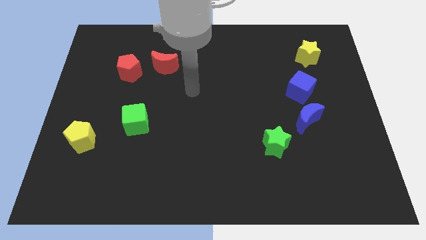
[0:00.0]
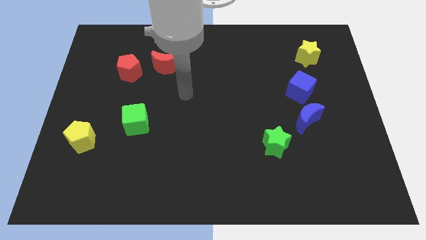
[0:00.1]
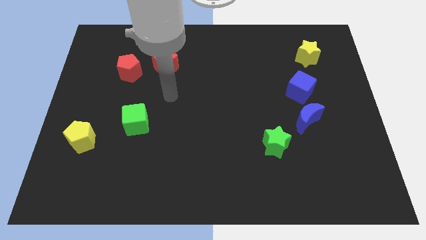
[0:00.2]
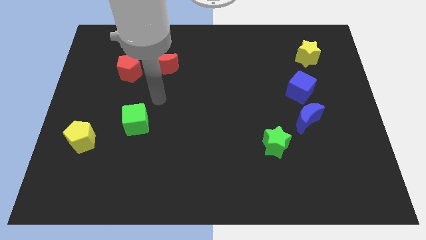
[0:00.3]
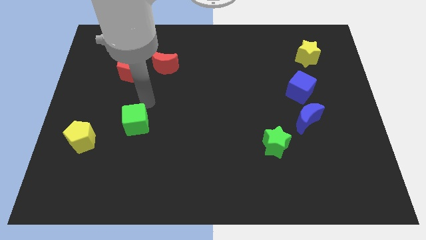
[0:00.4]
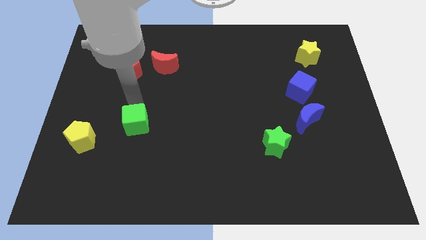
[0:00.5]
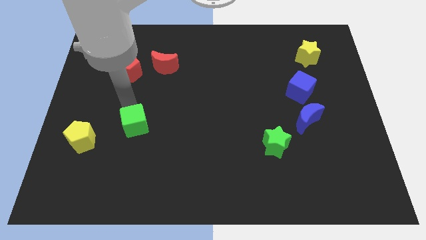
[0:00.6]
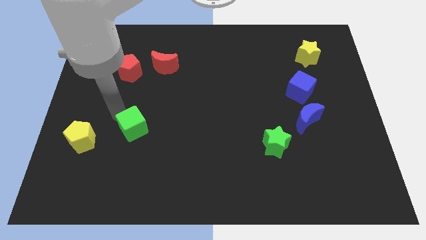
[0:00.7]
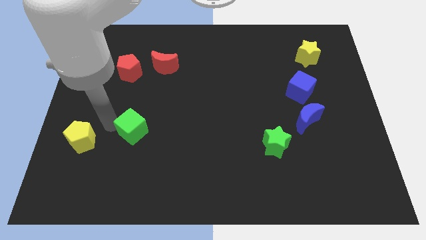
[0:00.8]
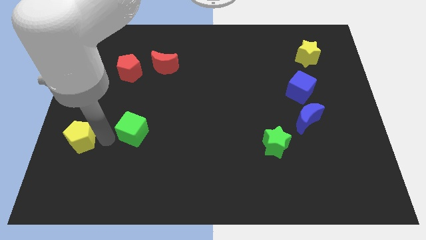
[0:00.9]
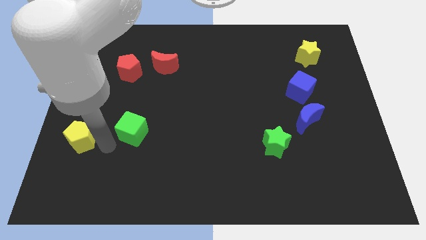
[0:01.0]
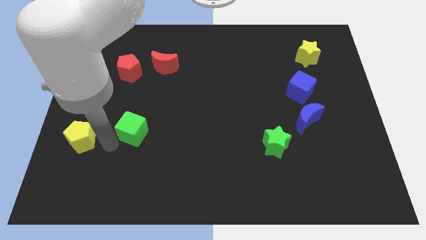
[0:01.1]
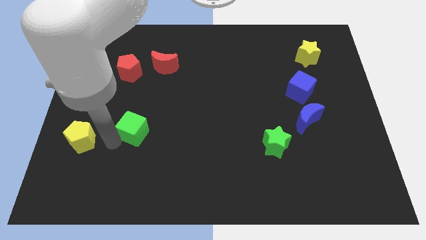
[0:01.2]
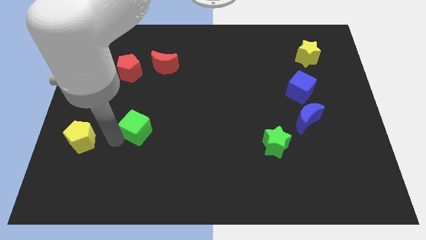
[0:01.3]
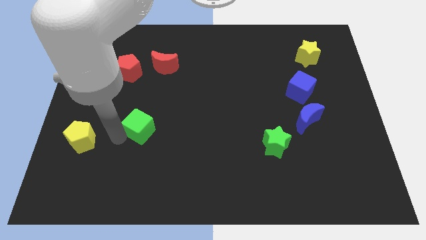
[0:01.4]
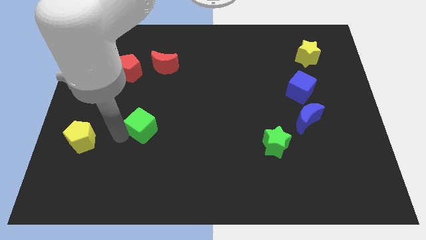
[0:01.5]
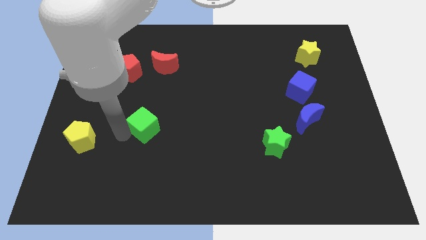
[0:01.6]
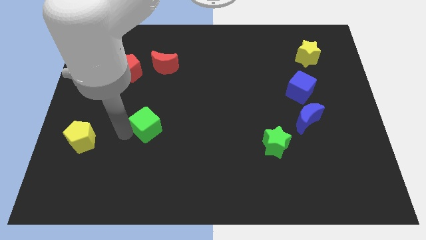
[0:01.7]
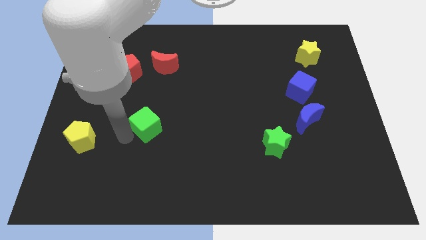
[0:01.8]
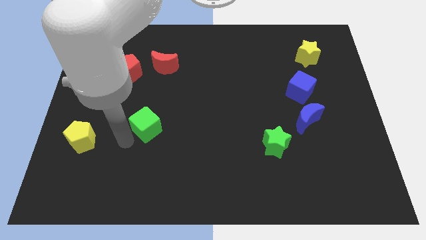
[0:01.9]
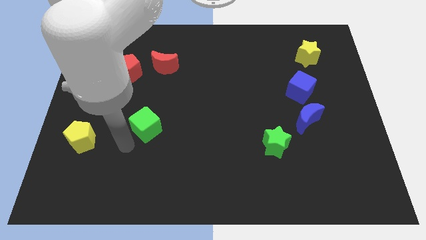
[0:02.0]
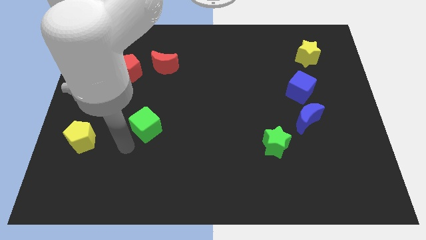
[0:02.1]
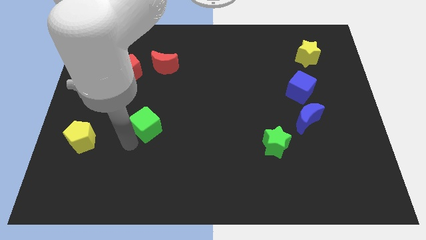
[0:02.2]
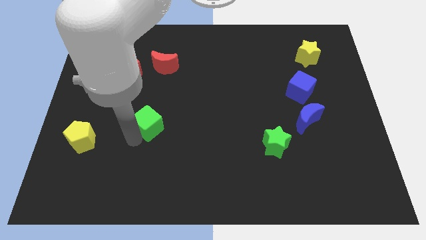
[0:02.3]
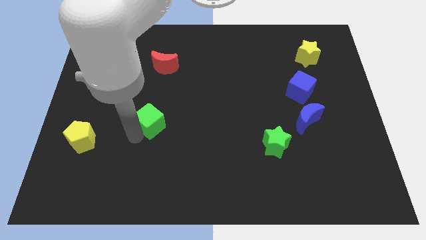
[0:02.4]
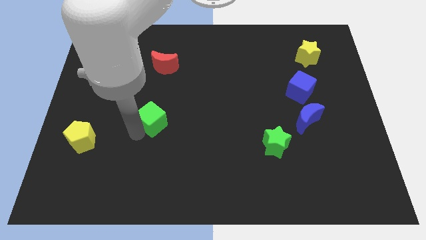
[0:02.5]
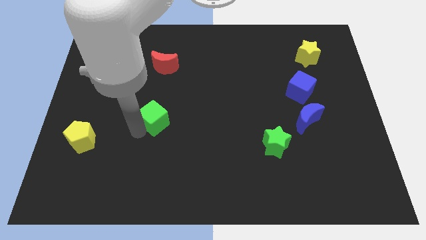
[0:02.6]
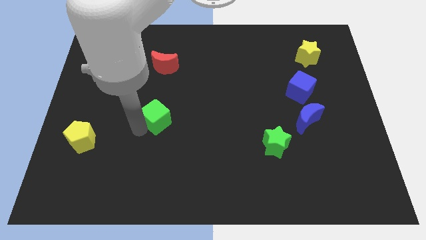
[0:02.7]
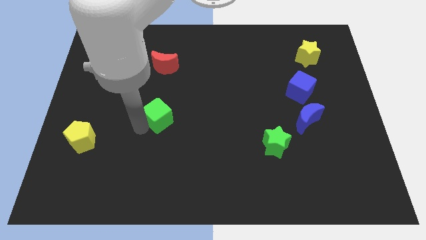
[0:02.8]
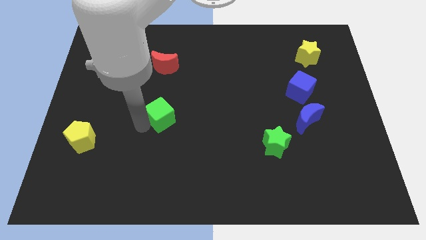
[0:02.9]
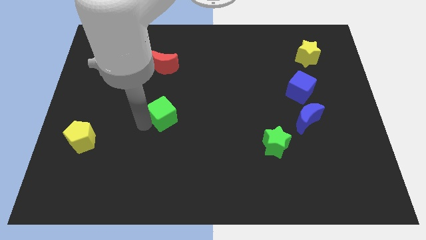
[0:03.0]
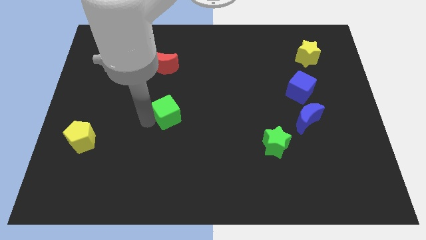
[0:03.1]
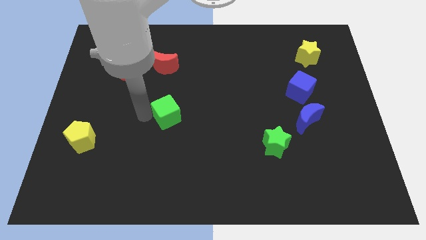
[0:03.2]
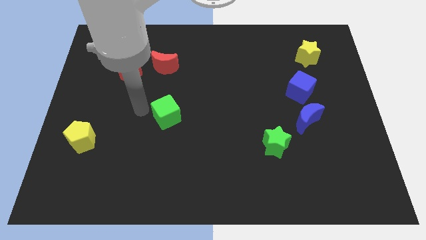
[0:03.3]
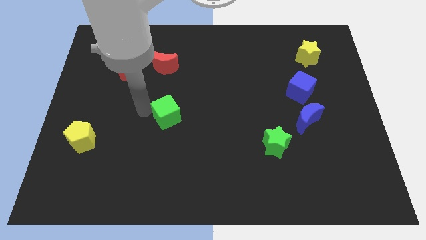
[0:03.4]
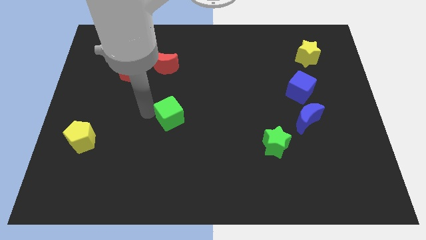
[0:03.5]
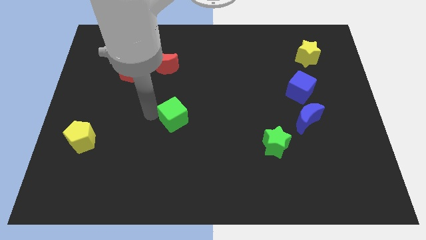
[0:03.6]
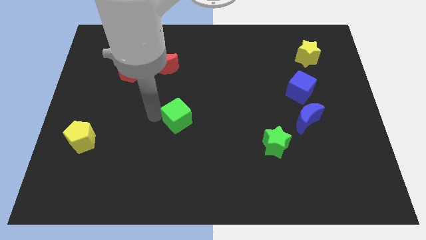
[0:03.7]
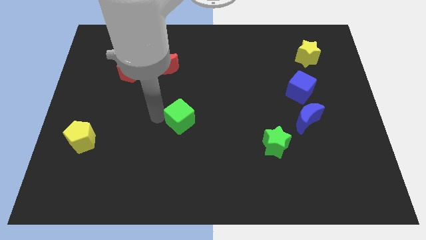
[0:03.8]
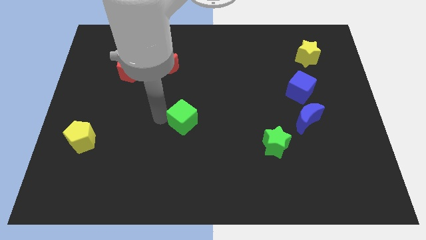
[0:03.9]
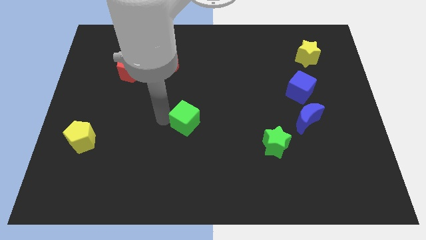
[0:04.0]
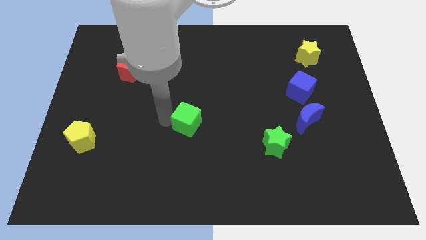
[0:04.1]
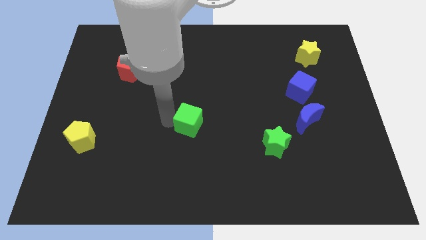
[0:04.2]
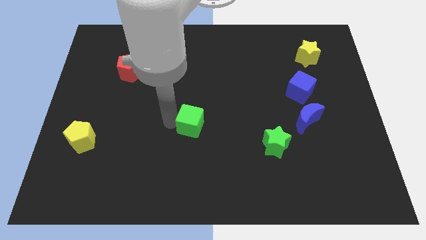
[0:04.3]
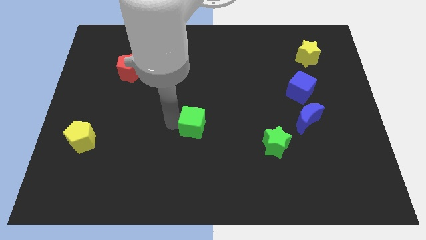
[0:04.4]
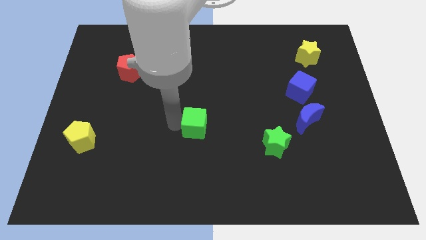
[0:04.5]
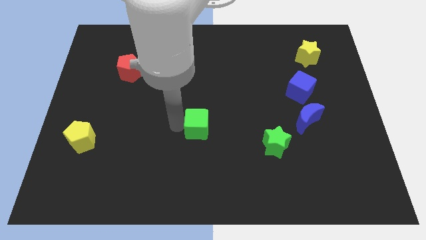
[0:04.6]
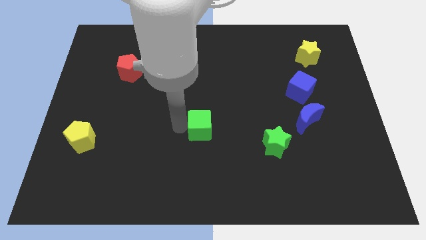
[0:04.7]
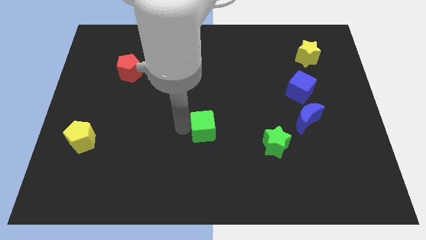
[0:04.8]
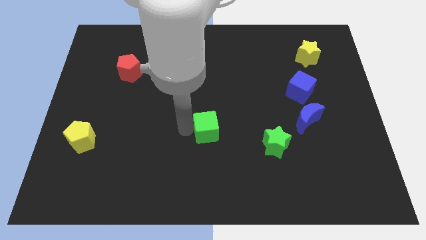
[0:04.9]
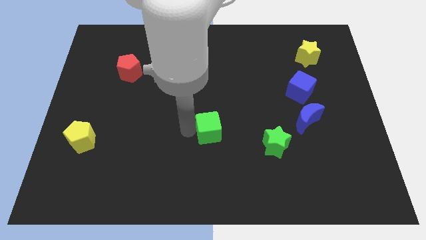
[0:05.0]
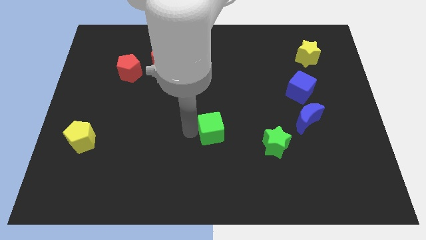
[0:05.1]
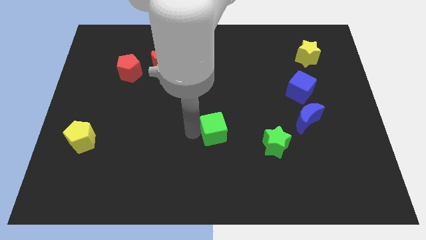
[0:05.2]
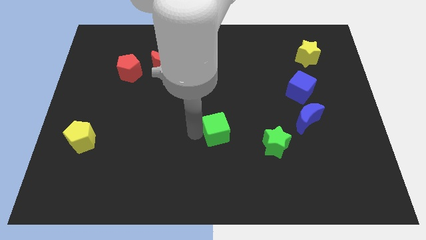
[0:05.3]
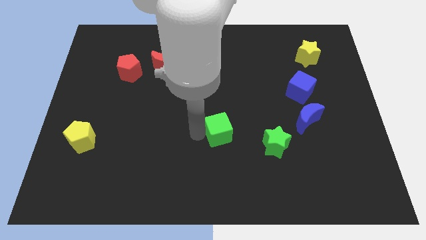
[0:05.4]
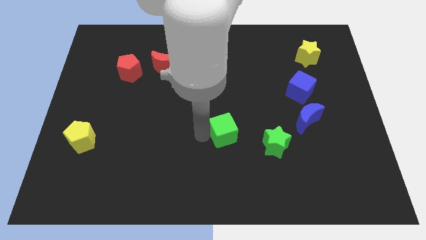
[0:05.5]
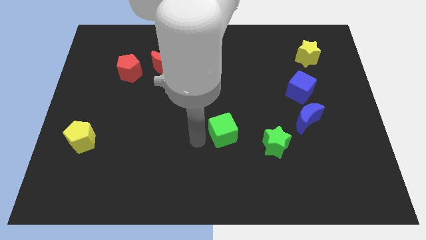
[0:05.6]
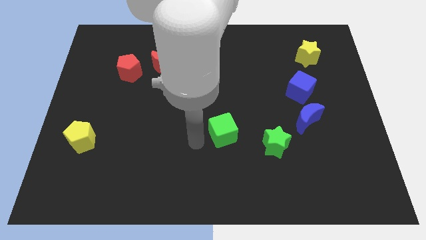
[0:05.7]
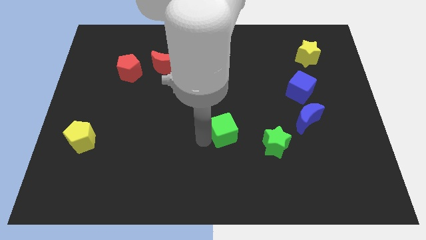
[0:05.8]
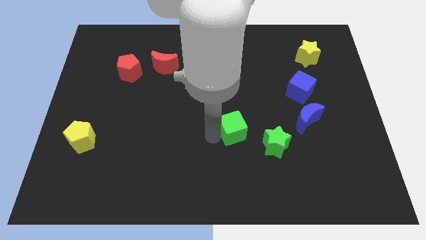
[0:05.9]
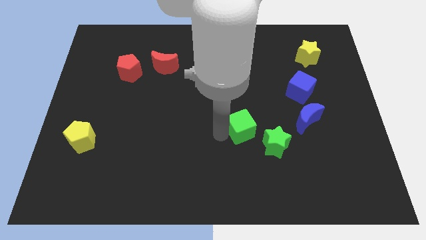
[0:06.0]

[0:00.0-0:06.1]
push the green cube to the left of the blue moon
